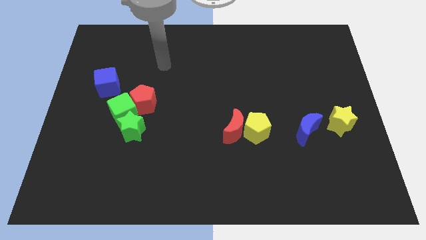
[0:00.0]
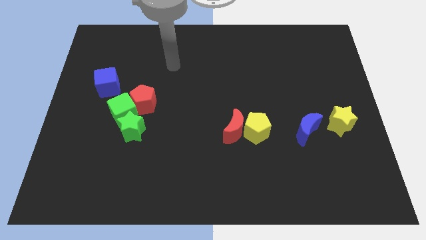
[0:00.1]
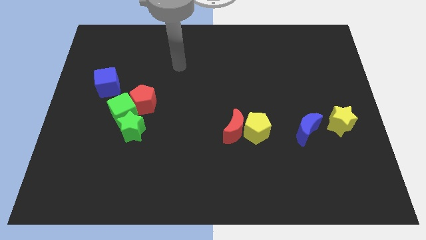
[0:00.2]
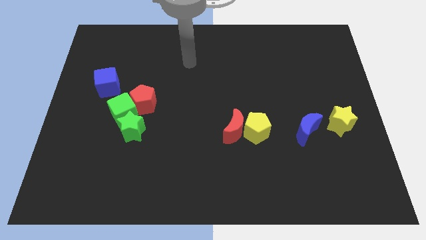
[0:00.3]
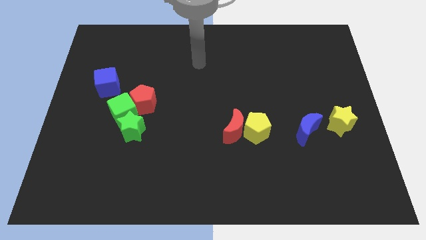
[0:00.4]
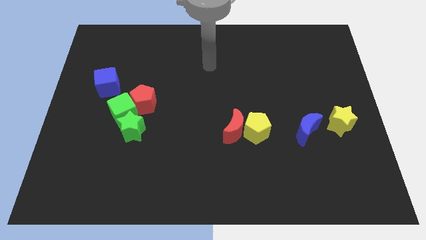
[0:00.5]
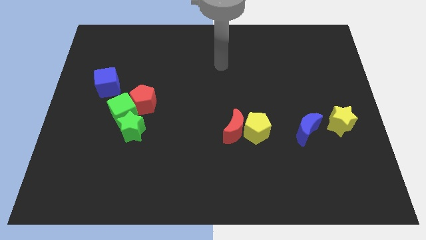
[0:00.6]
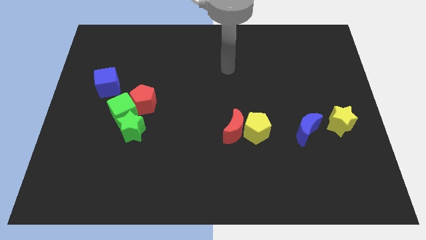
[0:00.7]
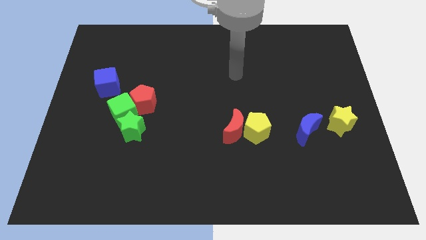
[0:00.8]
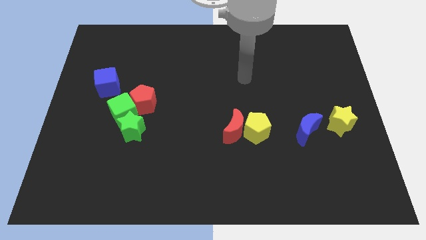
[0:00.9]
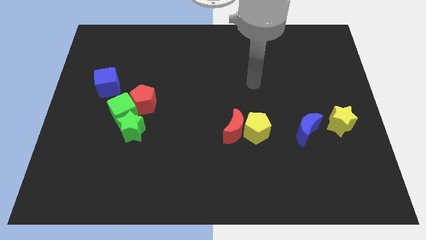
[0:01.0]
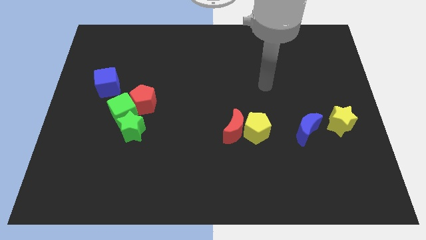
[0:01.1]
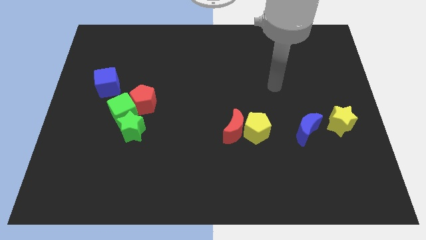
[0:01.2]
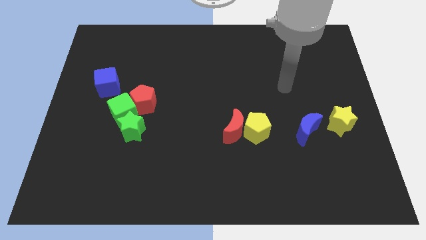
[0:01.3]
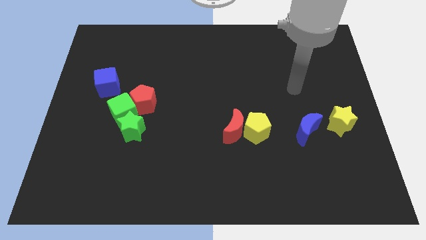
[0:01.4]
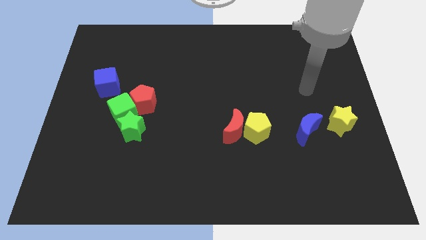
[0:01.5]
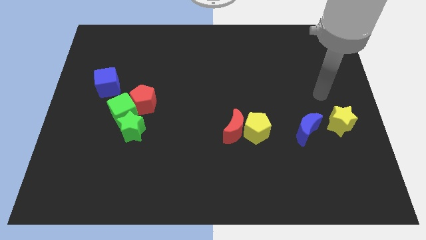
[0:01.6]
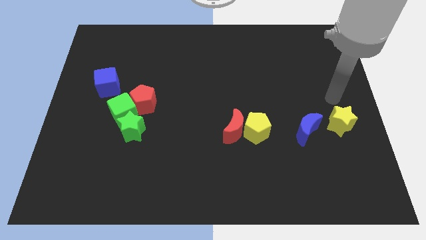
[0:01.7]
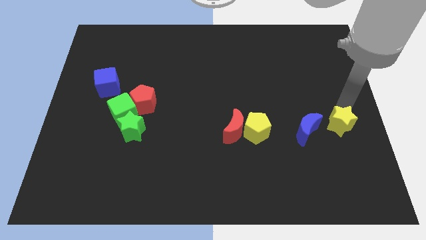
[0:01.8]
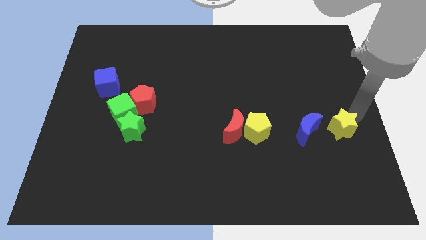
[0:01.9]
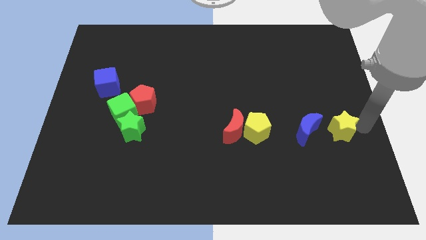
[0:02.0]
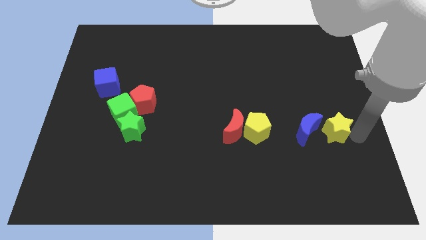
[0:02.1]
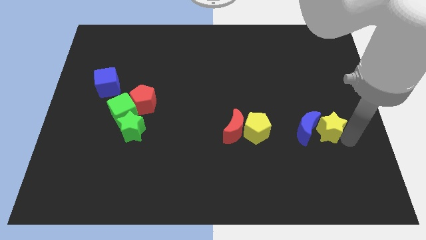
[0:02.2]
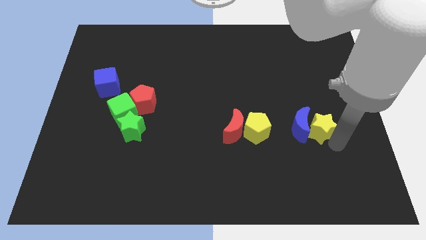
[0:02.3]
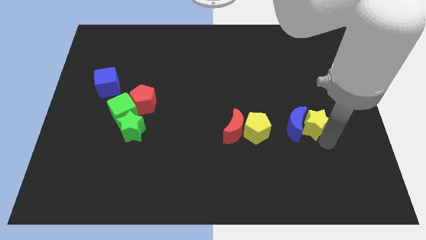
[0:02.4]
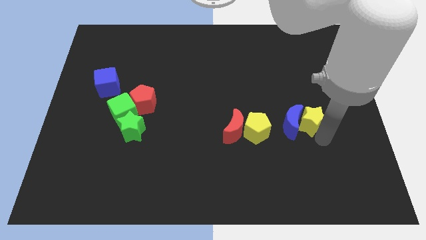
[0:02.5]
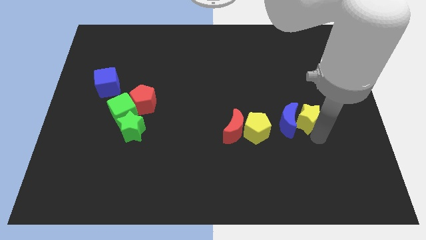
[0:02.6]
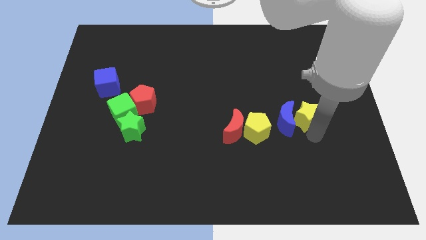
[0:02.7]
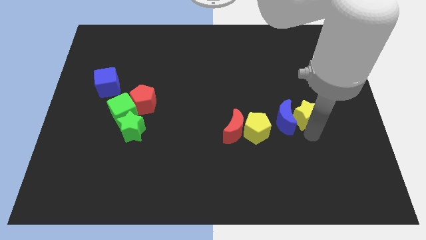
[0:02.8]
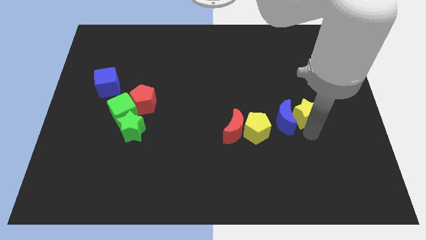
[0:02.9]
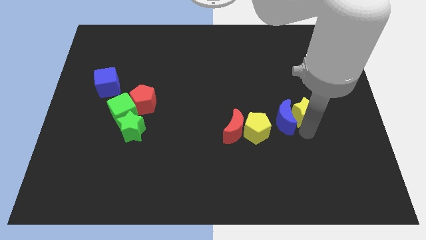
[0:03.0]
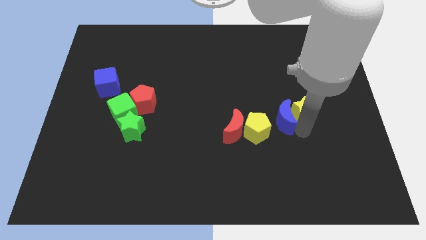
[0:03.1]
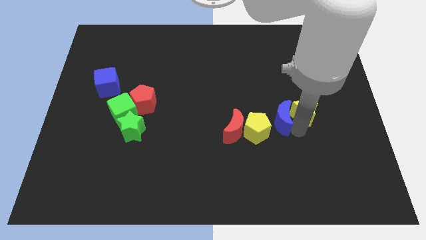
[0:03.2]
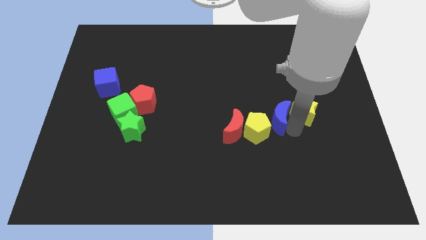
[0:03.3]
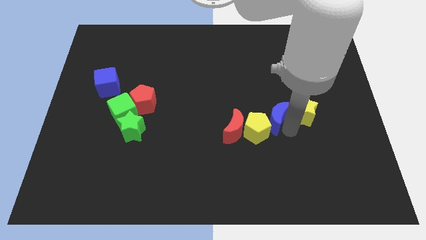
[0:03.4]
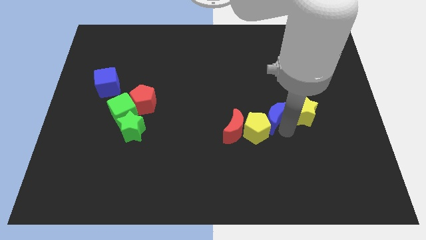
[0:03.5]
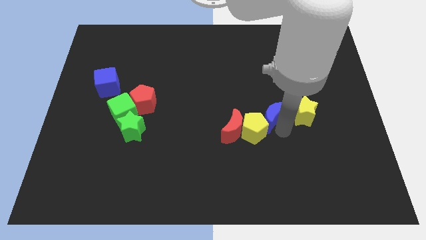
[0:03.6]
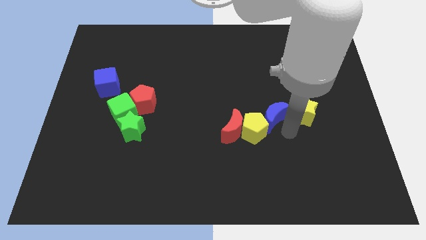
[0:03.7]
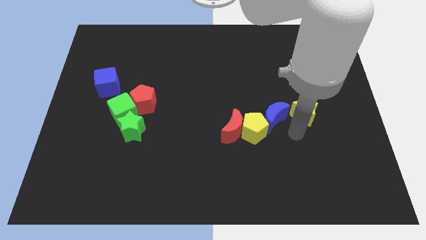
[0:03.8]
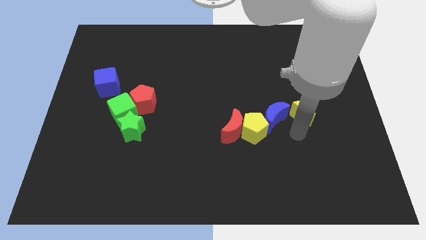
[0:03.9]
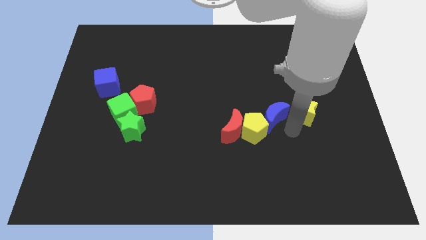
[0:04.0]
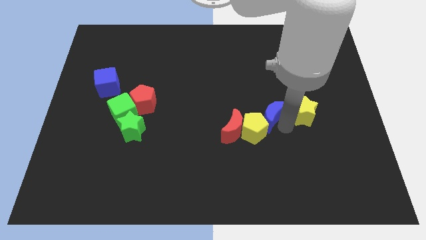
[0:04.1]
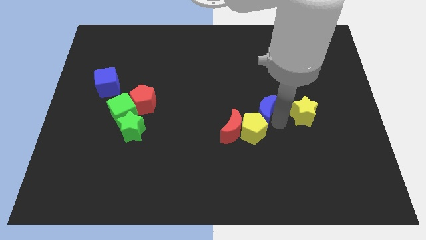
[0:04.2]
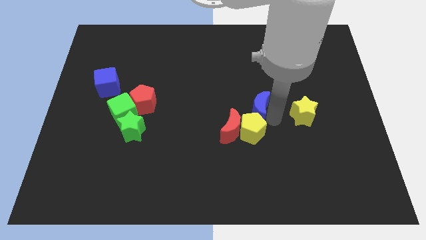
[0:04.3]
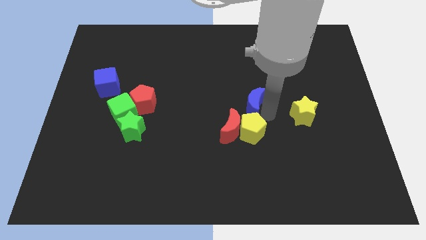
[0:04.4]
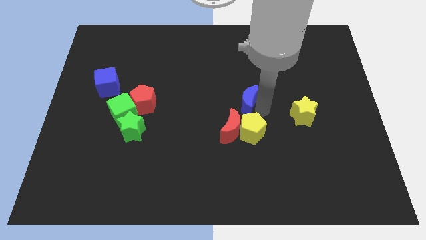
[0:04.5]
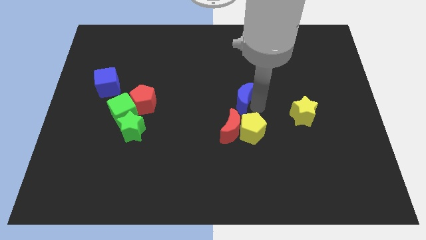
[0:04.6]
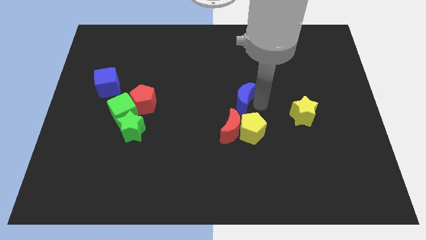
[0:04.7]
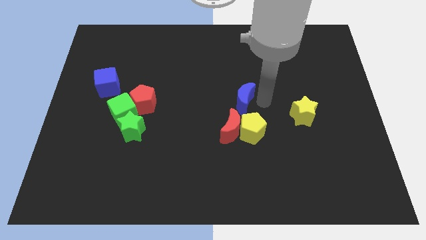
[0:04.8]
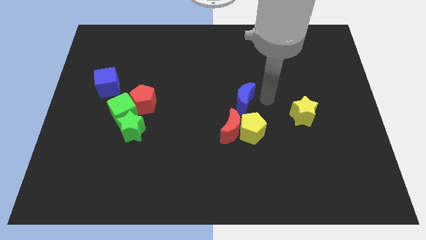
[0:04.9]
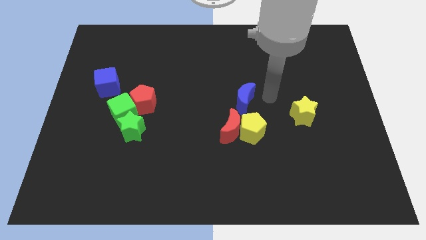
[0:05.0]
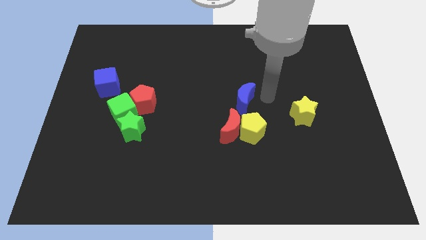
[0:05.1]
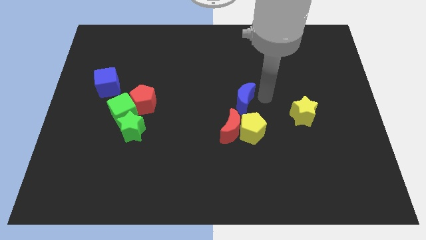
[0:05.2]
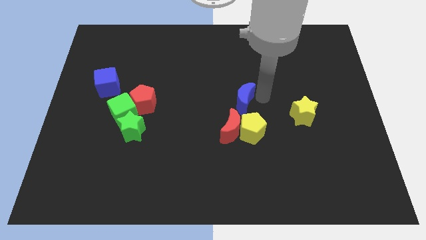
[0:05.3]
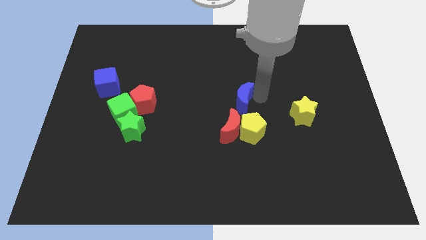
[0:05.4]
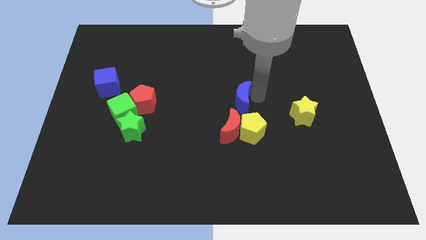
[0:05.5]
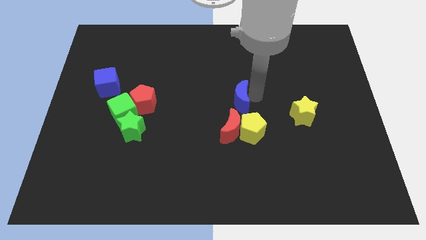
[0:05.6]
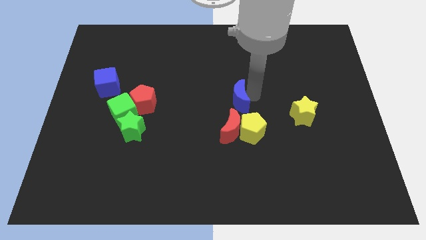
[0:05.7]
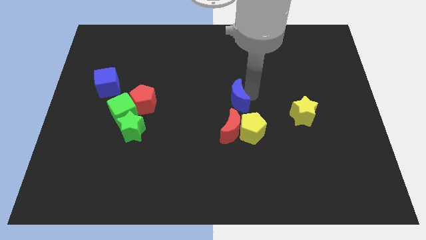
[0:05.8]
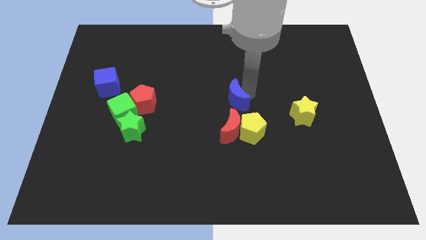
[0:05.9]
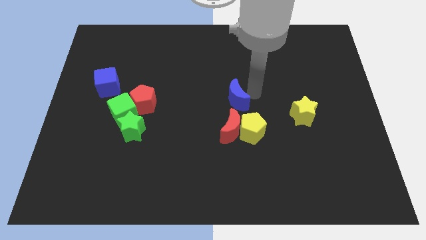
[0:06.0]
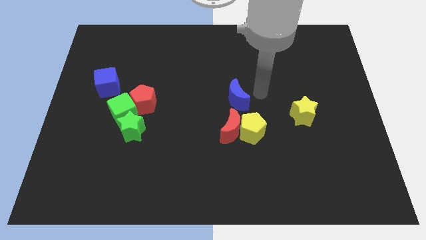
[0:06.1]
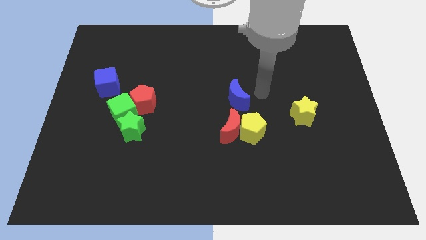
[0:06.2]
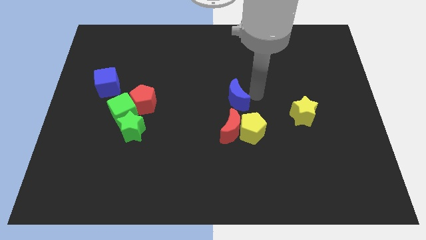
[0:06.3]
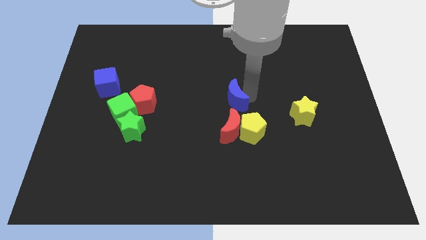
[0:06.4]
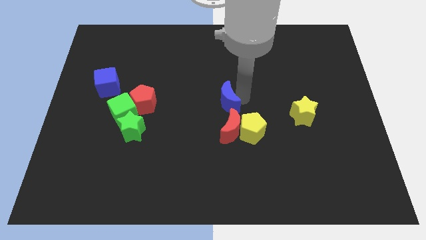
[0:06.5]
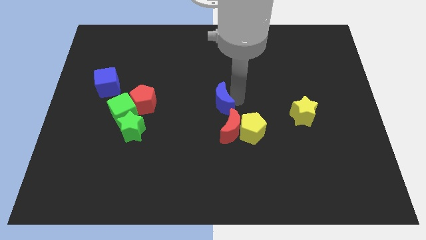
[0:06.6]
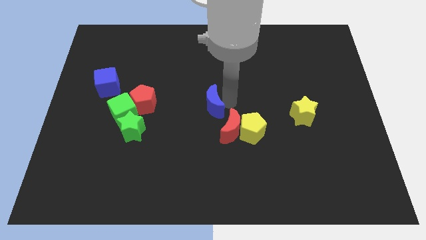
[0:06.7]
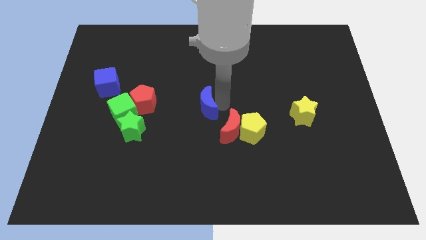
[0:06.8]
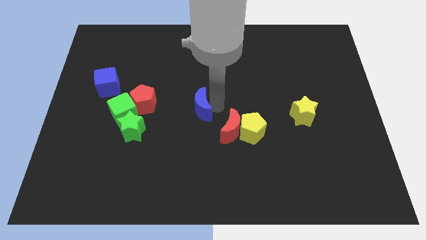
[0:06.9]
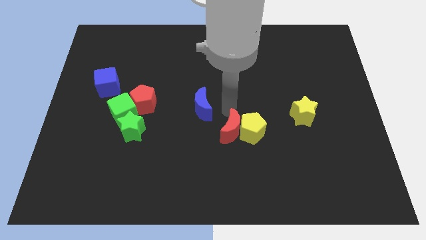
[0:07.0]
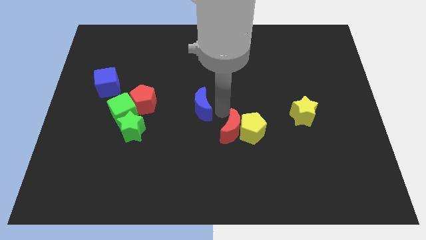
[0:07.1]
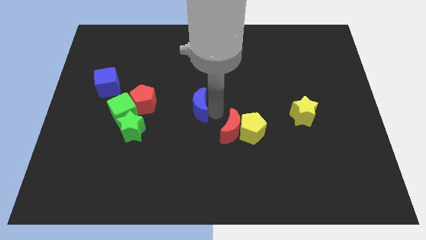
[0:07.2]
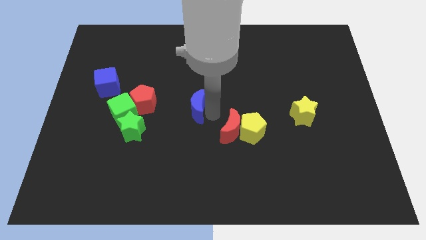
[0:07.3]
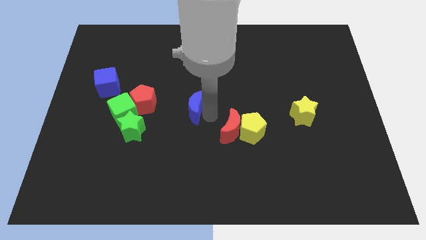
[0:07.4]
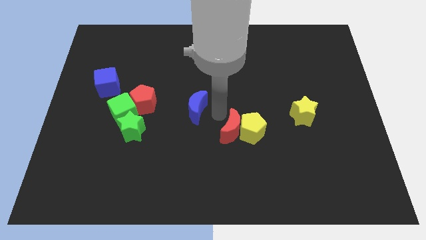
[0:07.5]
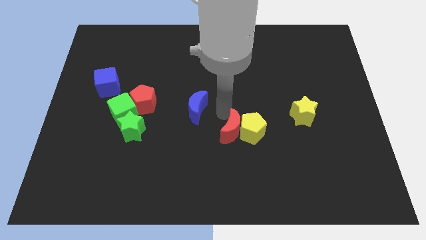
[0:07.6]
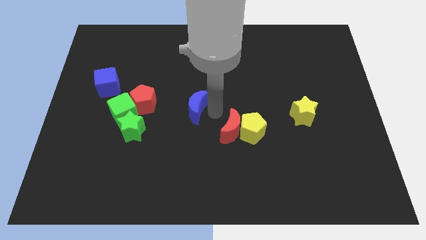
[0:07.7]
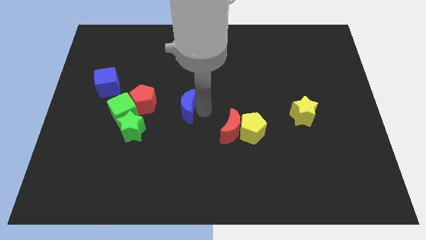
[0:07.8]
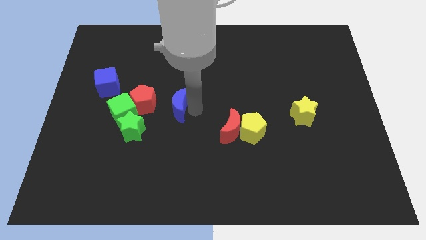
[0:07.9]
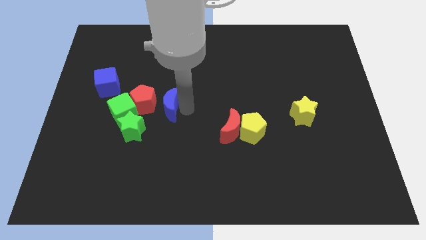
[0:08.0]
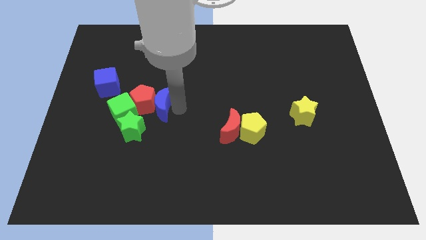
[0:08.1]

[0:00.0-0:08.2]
put the blue moon close to the red pentagon
